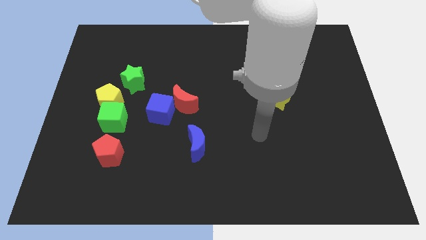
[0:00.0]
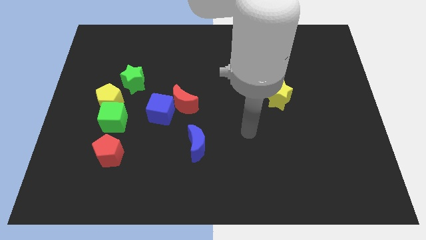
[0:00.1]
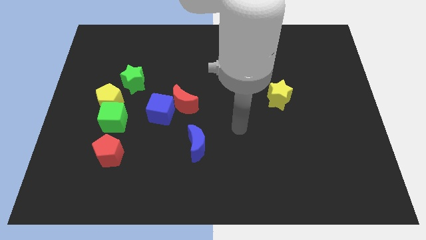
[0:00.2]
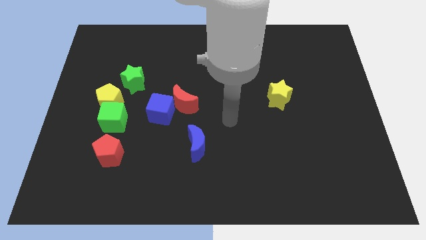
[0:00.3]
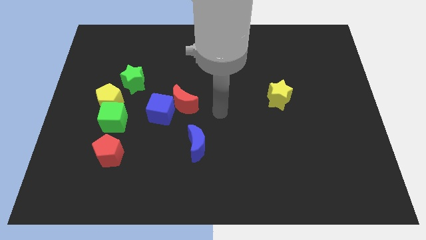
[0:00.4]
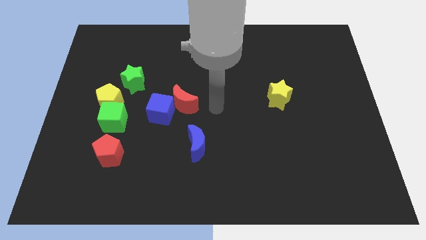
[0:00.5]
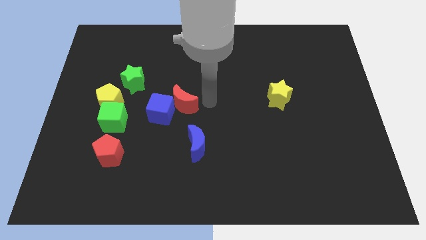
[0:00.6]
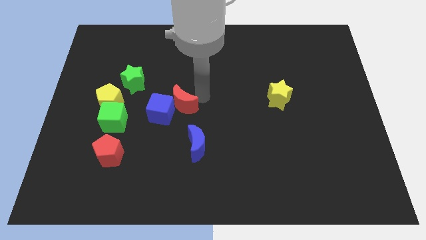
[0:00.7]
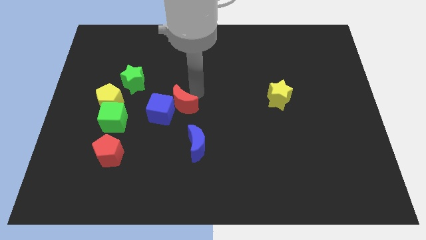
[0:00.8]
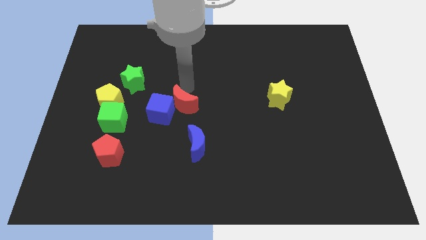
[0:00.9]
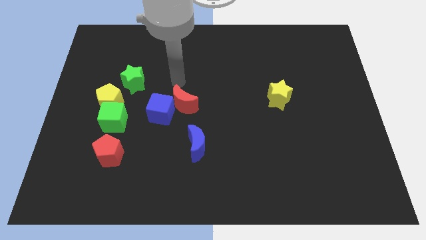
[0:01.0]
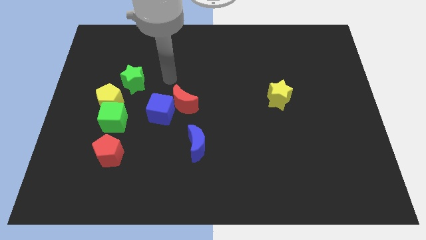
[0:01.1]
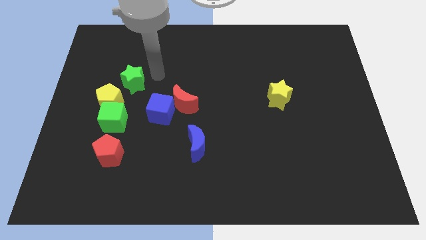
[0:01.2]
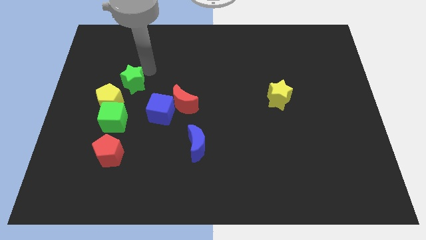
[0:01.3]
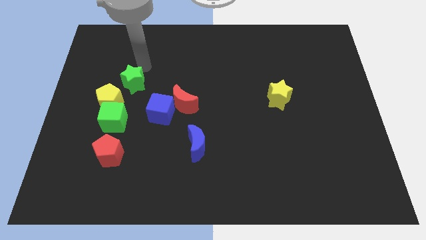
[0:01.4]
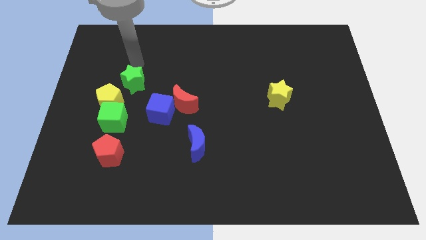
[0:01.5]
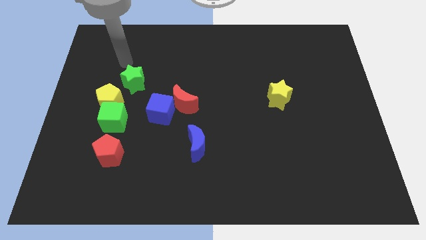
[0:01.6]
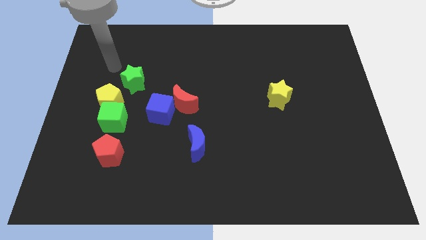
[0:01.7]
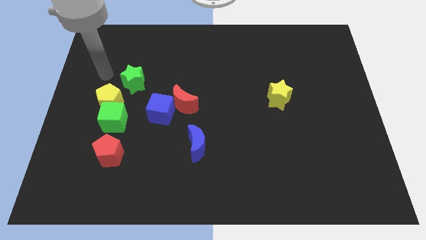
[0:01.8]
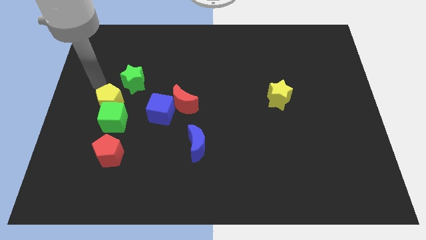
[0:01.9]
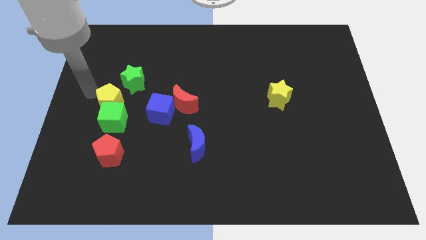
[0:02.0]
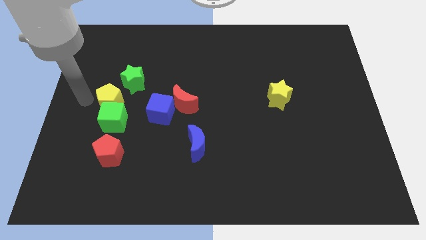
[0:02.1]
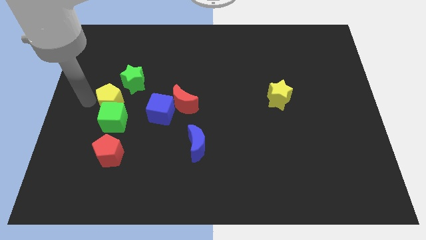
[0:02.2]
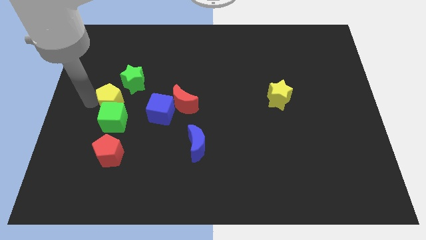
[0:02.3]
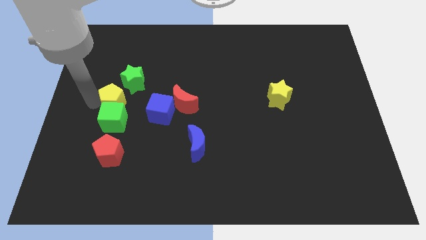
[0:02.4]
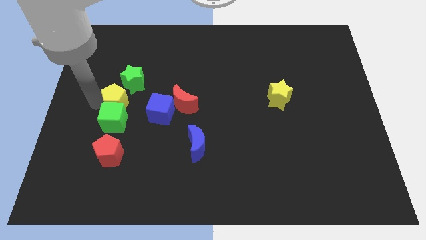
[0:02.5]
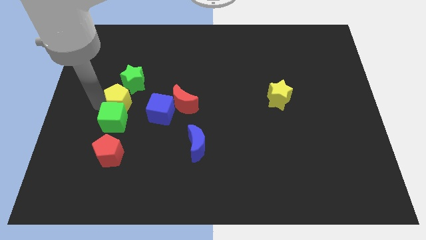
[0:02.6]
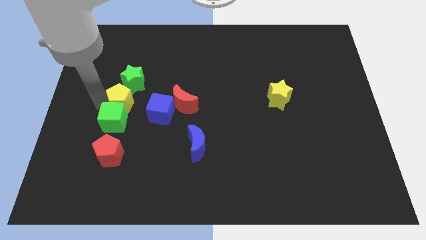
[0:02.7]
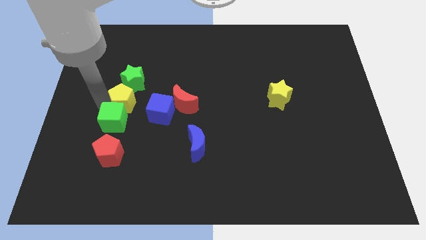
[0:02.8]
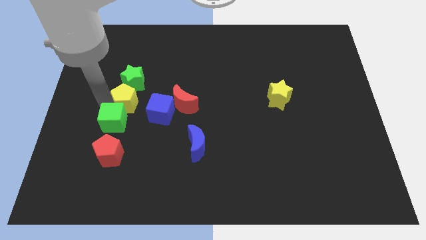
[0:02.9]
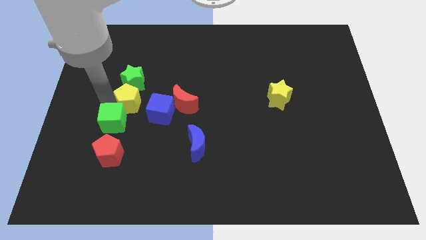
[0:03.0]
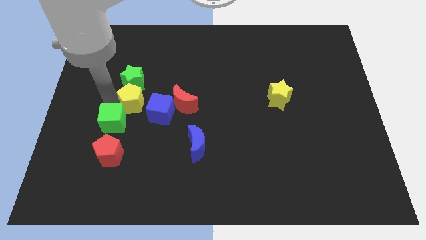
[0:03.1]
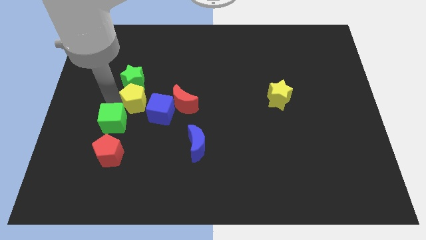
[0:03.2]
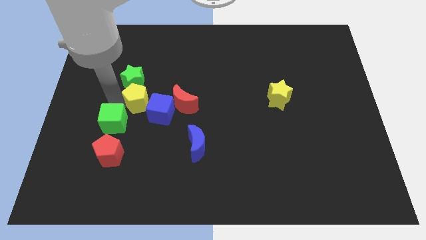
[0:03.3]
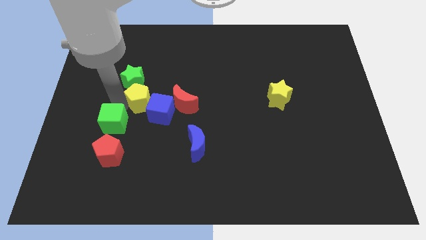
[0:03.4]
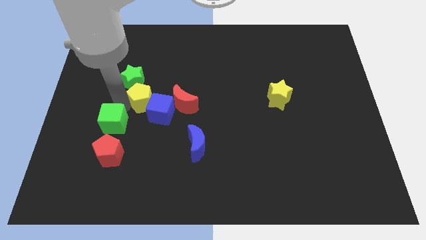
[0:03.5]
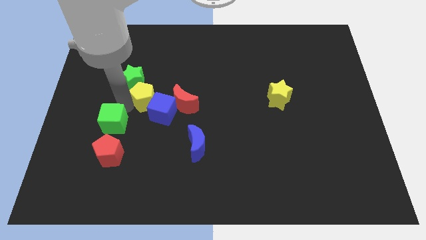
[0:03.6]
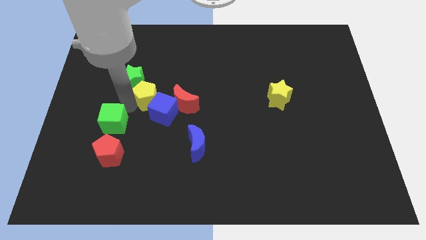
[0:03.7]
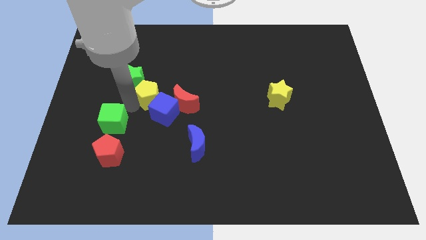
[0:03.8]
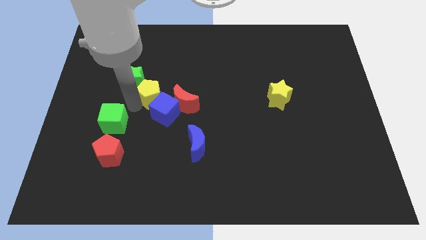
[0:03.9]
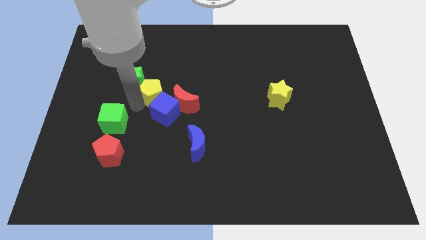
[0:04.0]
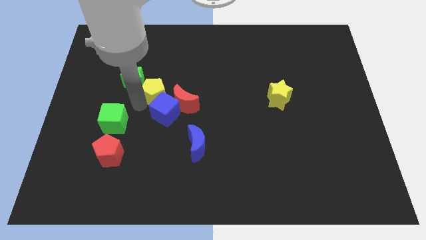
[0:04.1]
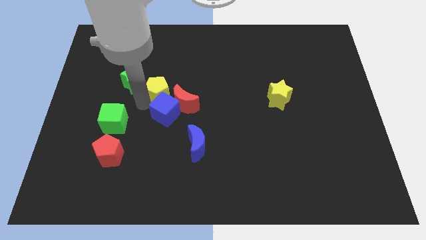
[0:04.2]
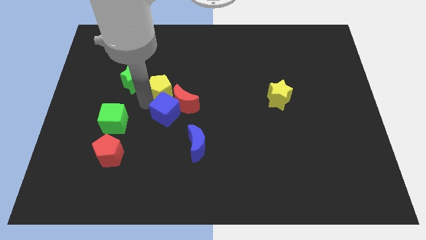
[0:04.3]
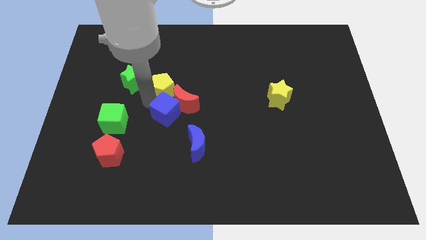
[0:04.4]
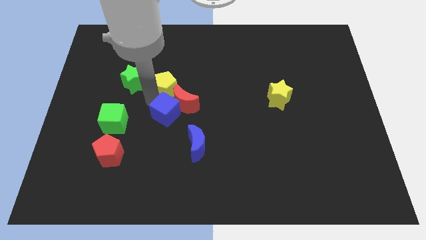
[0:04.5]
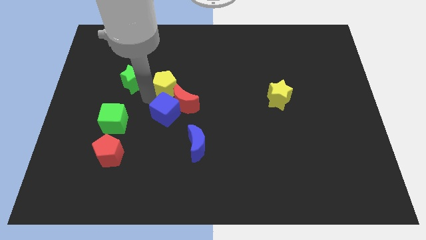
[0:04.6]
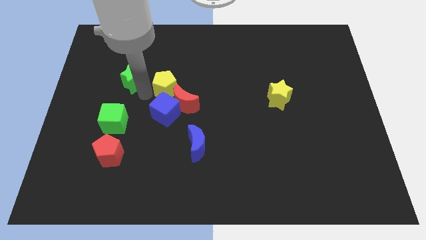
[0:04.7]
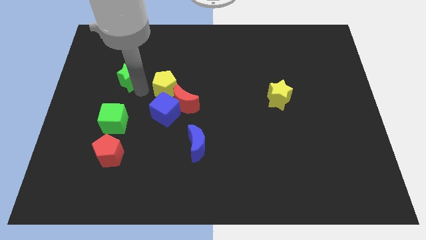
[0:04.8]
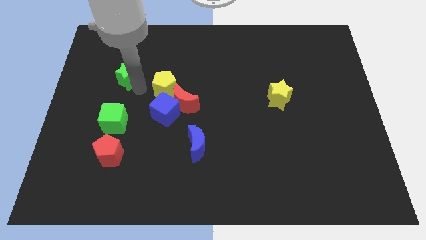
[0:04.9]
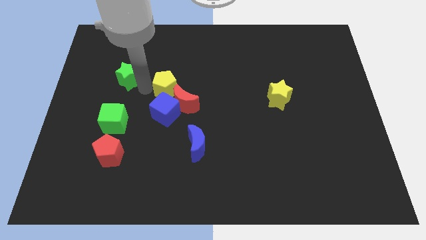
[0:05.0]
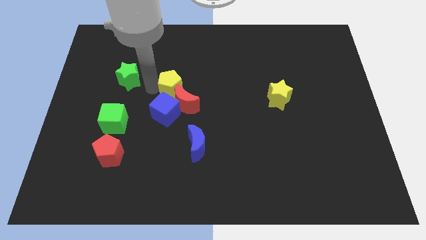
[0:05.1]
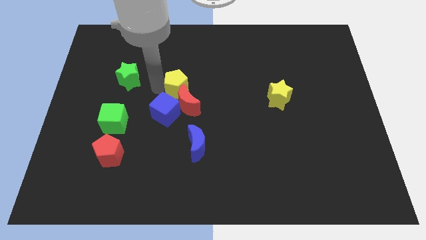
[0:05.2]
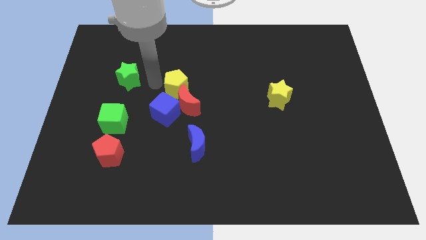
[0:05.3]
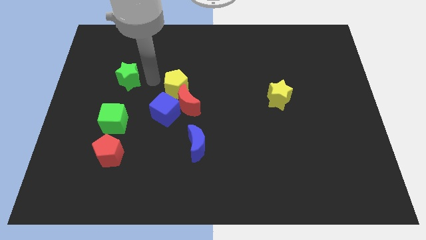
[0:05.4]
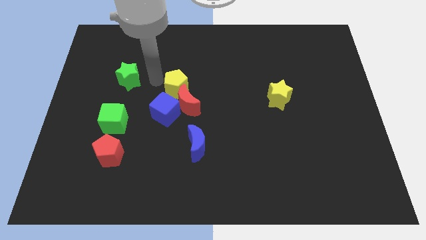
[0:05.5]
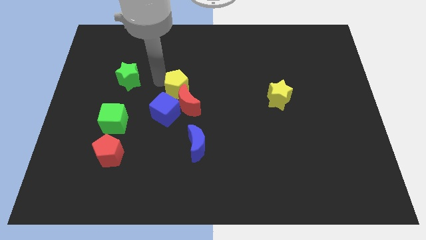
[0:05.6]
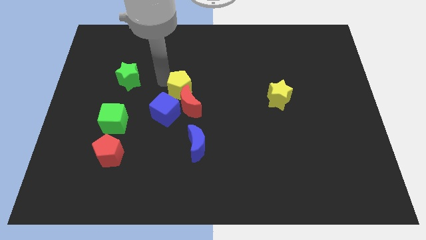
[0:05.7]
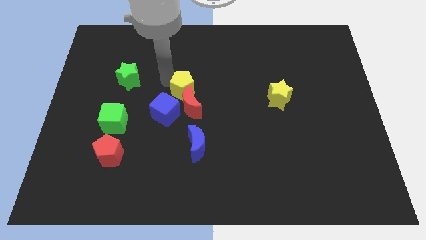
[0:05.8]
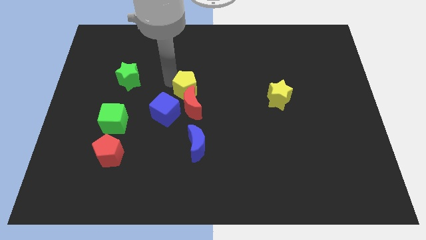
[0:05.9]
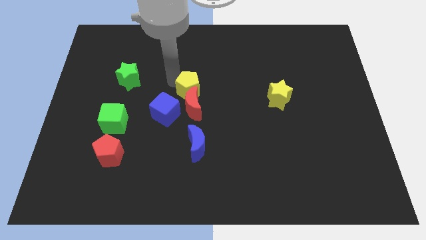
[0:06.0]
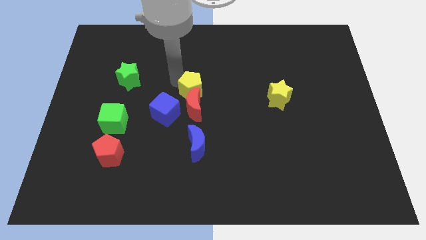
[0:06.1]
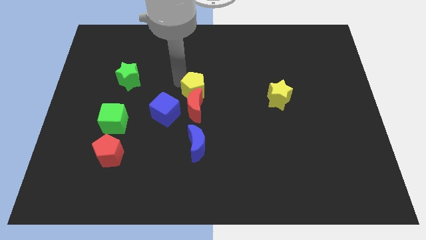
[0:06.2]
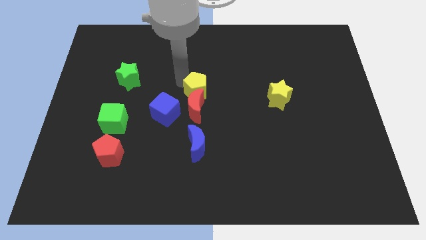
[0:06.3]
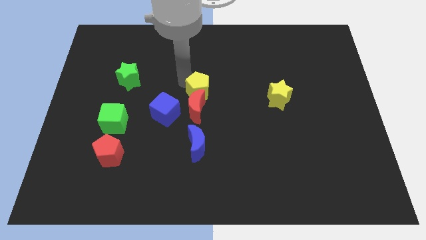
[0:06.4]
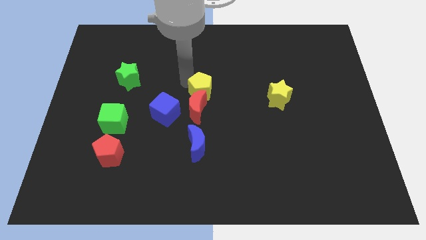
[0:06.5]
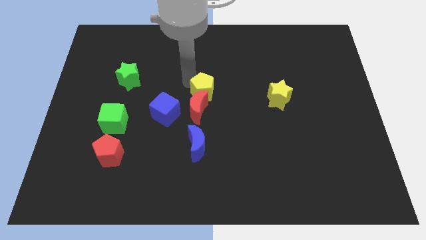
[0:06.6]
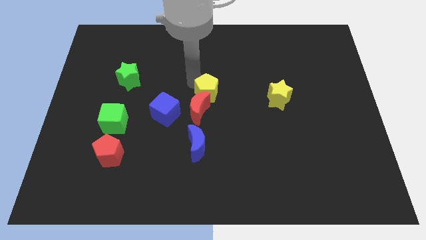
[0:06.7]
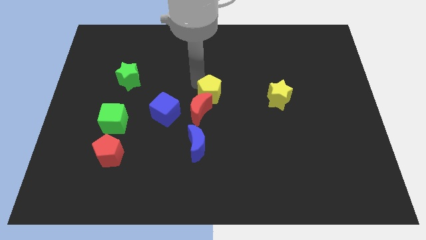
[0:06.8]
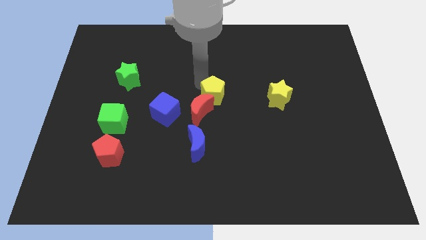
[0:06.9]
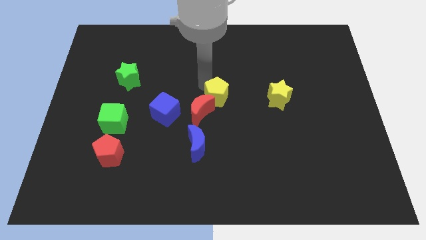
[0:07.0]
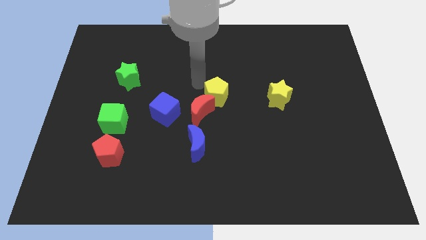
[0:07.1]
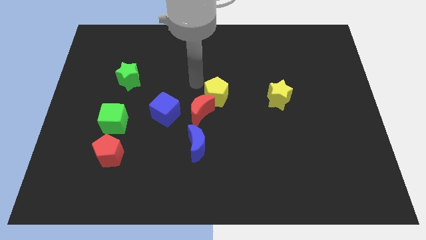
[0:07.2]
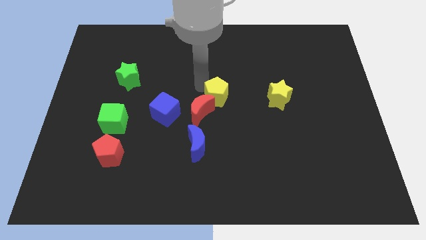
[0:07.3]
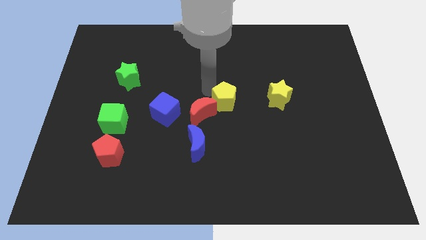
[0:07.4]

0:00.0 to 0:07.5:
move the yellow pentagon just right of the red moon

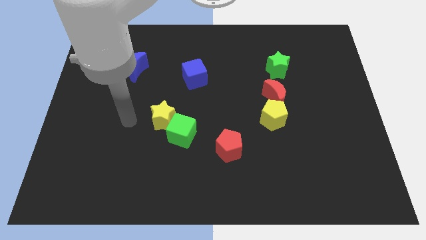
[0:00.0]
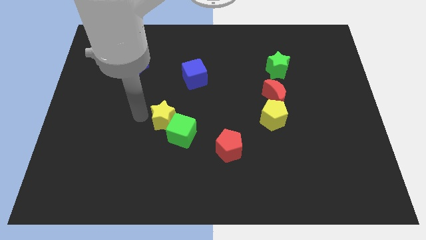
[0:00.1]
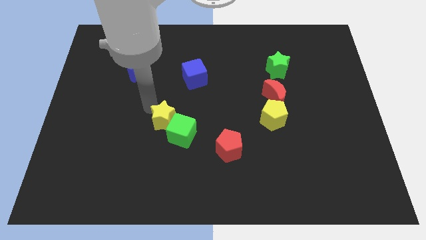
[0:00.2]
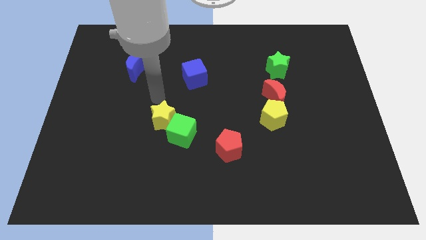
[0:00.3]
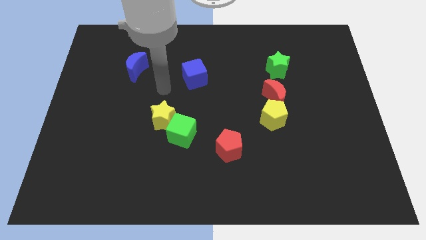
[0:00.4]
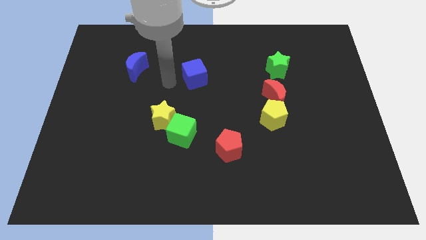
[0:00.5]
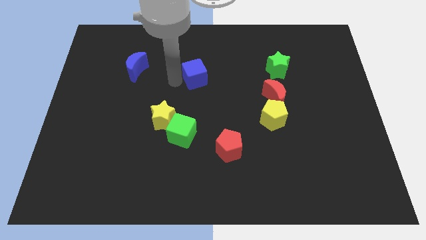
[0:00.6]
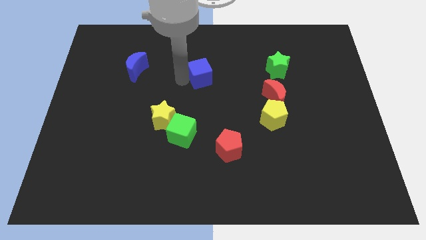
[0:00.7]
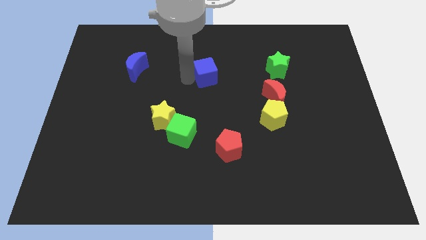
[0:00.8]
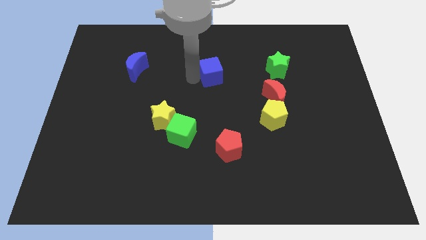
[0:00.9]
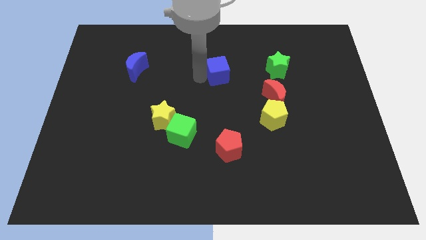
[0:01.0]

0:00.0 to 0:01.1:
move the blue cube to the left side of the green star
